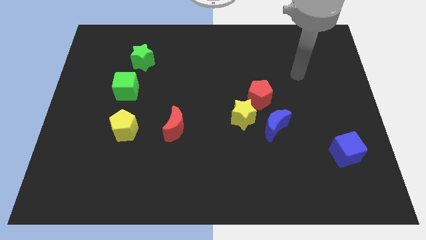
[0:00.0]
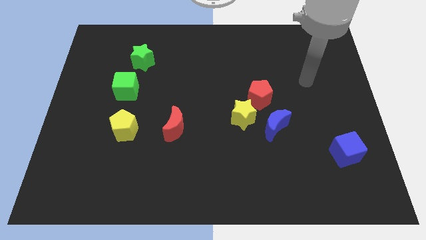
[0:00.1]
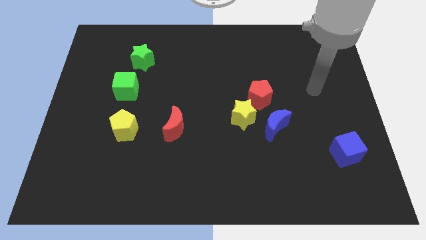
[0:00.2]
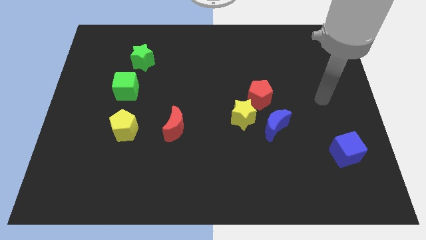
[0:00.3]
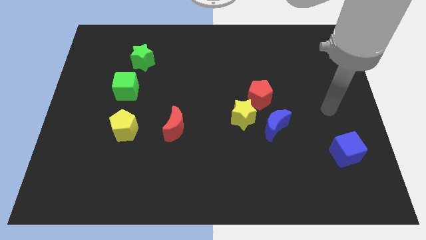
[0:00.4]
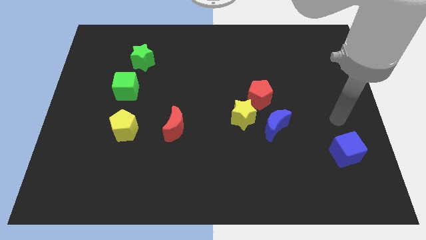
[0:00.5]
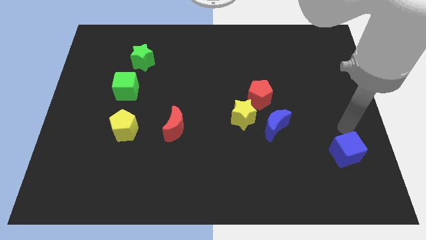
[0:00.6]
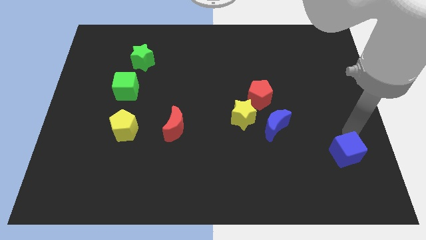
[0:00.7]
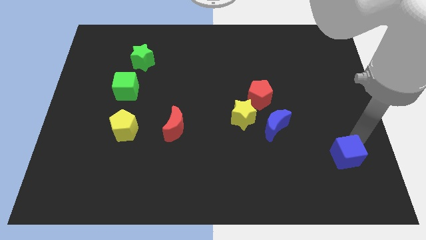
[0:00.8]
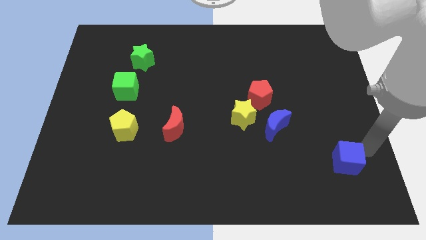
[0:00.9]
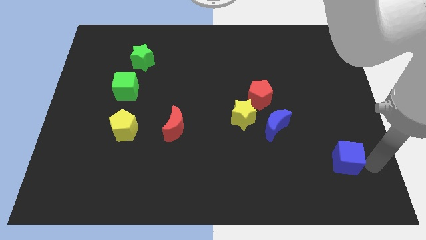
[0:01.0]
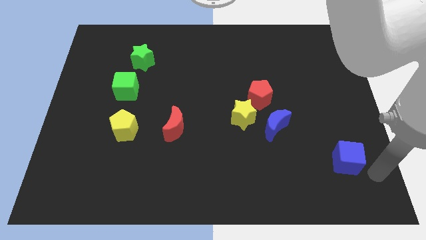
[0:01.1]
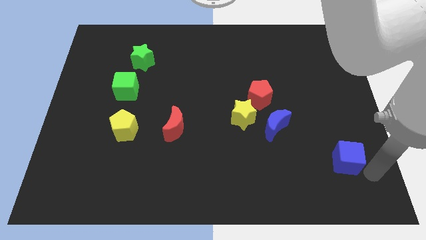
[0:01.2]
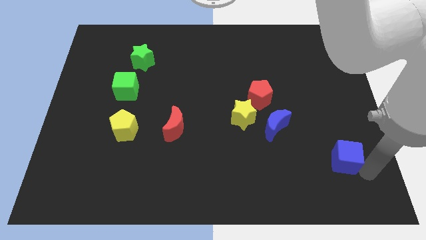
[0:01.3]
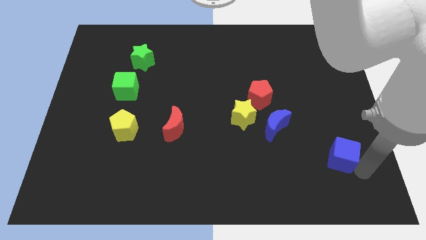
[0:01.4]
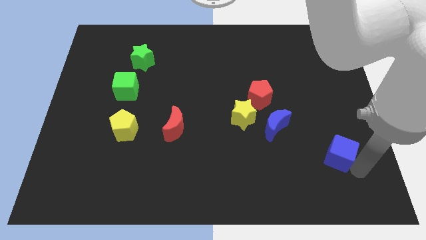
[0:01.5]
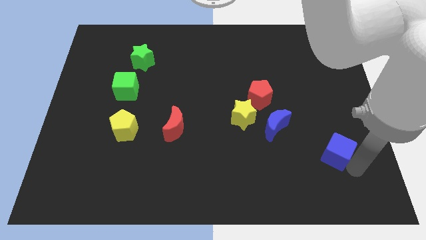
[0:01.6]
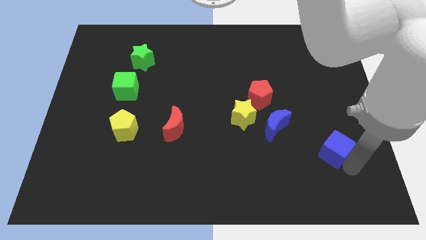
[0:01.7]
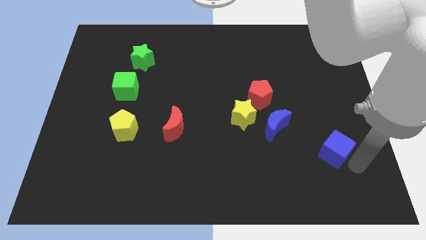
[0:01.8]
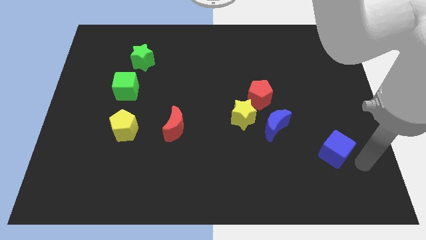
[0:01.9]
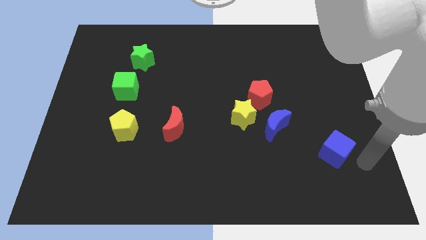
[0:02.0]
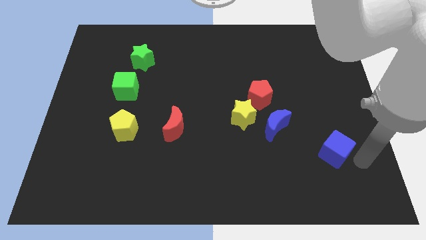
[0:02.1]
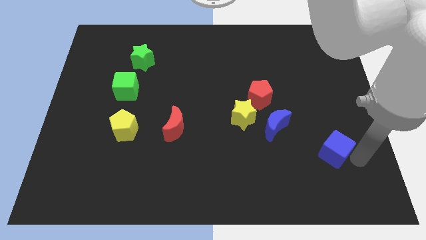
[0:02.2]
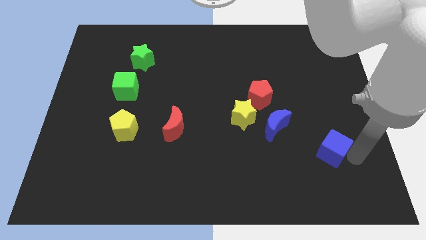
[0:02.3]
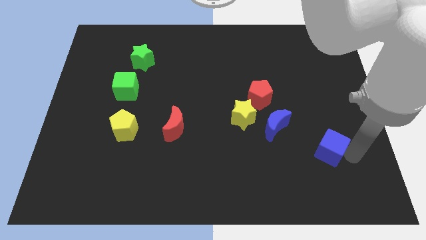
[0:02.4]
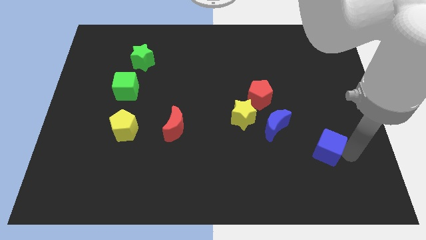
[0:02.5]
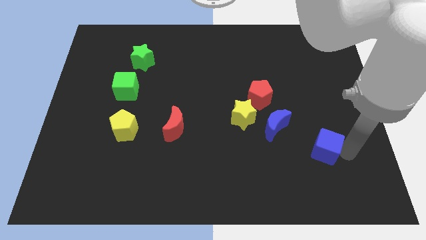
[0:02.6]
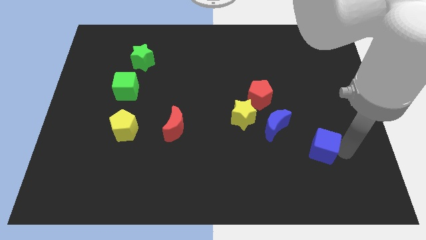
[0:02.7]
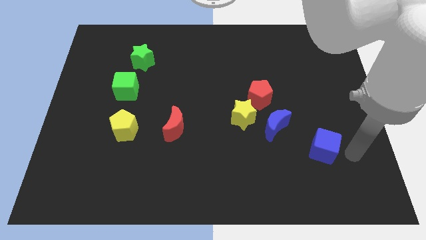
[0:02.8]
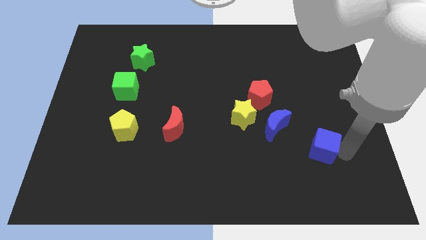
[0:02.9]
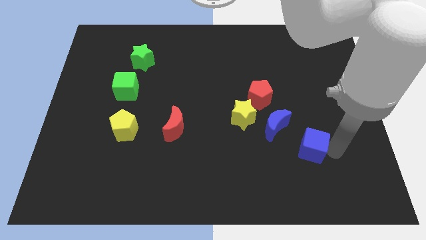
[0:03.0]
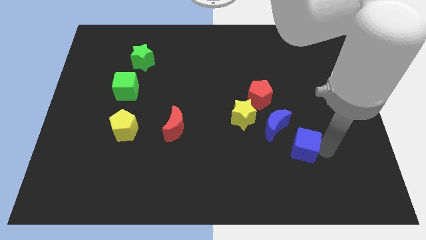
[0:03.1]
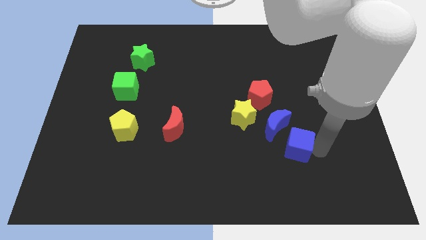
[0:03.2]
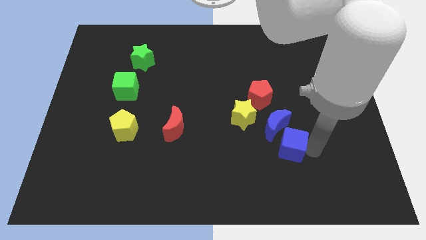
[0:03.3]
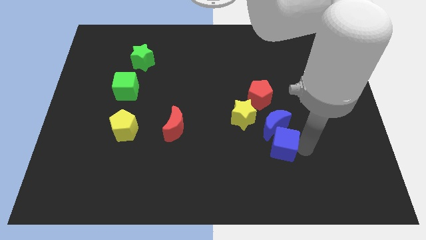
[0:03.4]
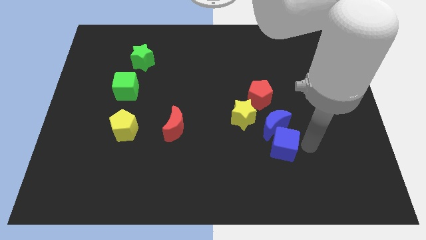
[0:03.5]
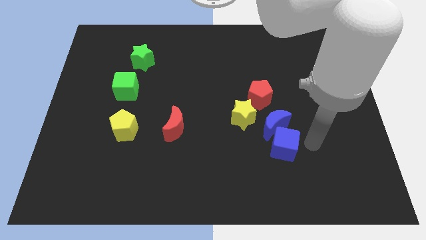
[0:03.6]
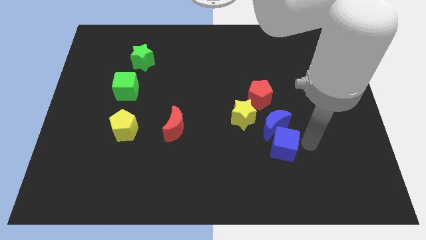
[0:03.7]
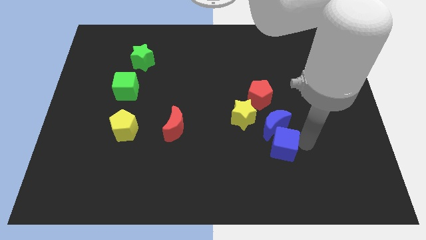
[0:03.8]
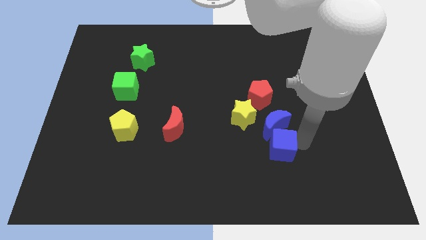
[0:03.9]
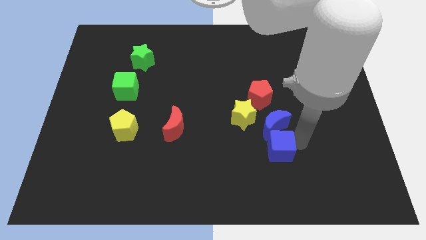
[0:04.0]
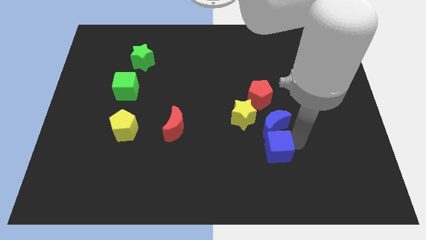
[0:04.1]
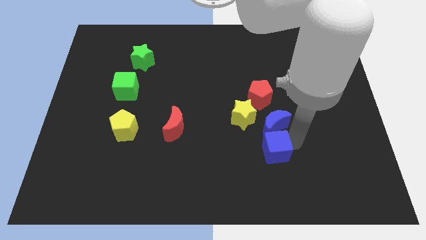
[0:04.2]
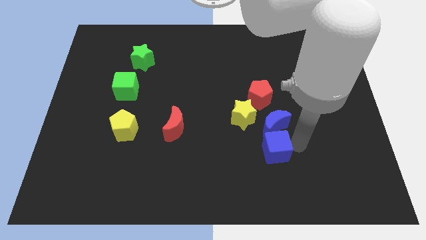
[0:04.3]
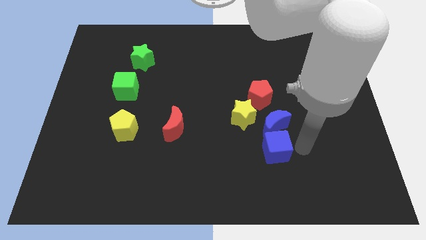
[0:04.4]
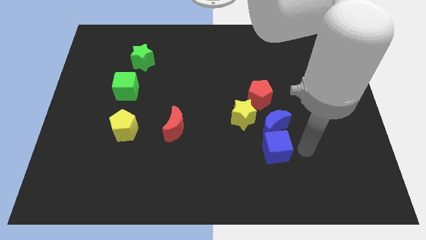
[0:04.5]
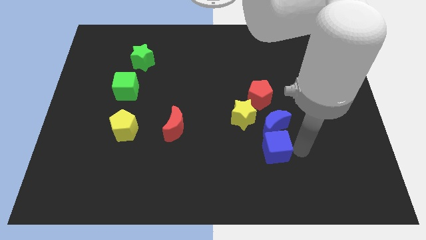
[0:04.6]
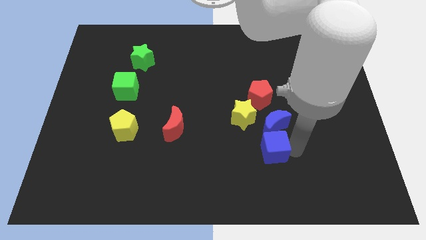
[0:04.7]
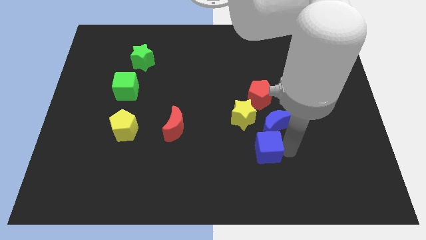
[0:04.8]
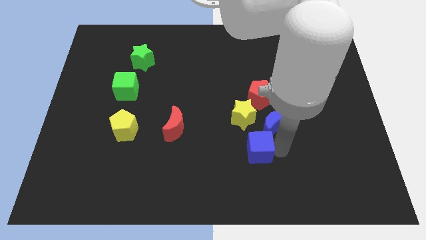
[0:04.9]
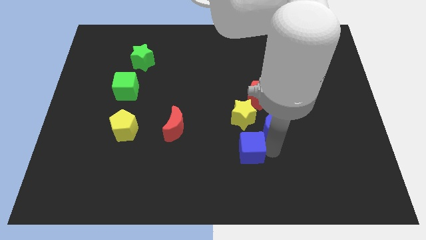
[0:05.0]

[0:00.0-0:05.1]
move the blue cube left

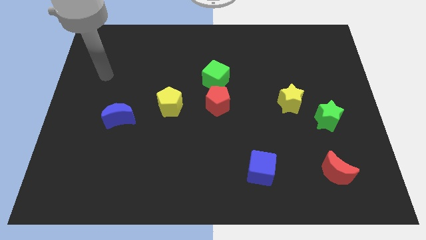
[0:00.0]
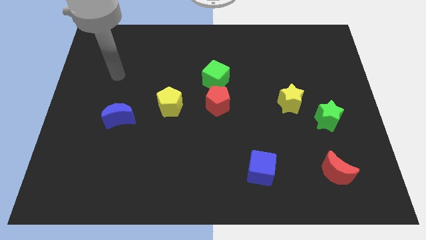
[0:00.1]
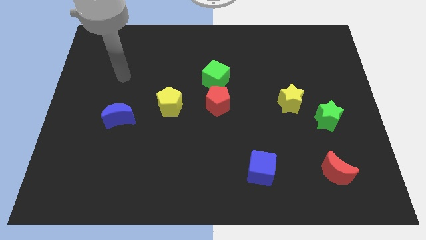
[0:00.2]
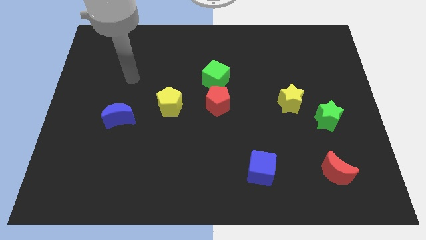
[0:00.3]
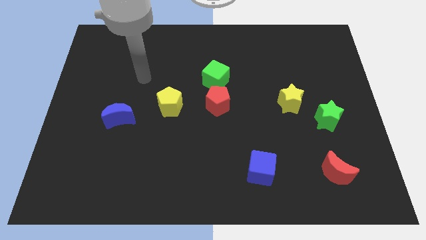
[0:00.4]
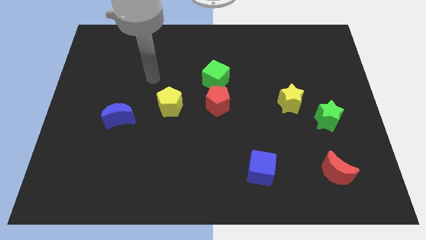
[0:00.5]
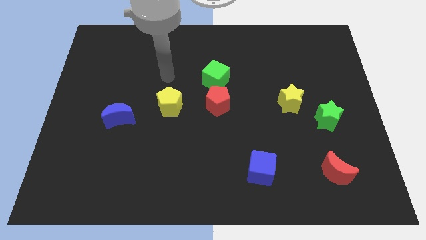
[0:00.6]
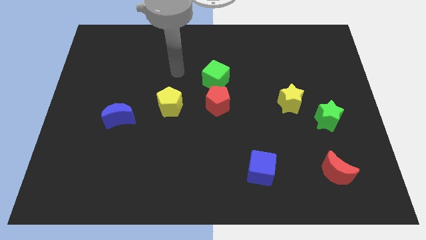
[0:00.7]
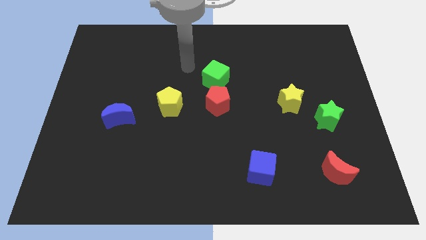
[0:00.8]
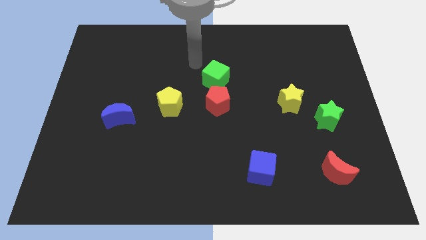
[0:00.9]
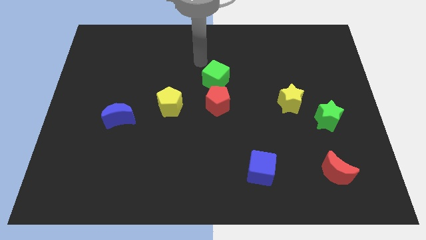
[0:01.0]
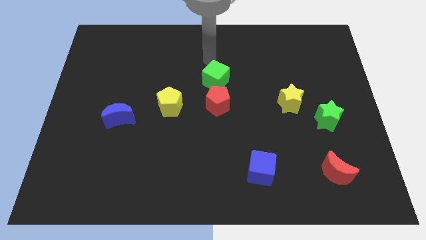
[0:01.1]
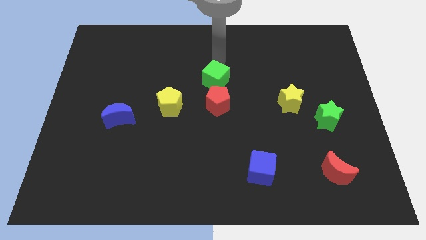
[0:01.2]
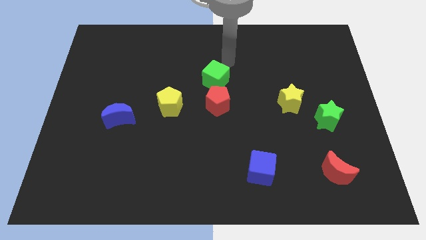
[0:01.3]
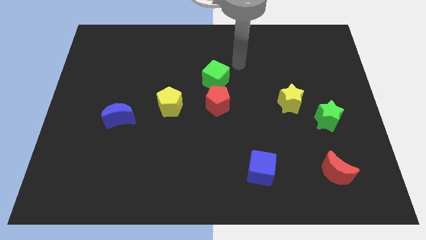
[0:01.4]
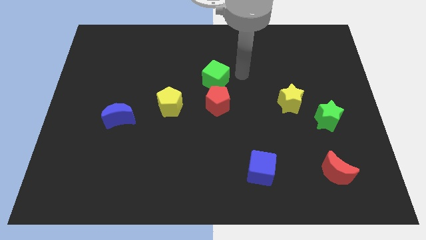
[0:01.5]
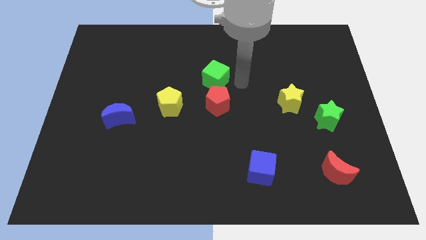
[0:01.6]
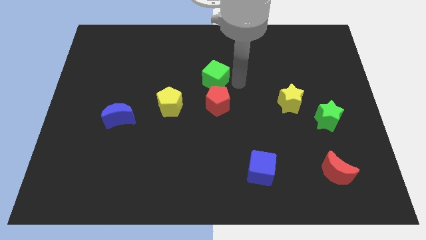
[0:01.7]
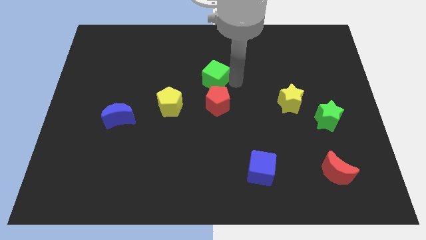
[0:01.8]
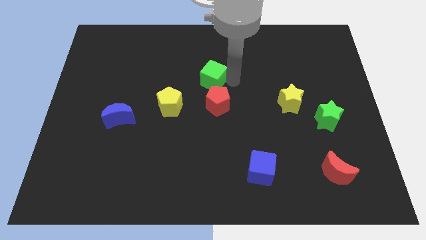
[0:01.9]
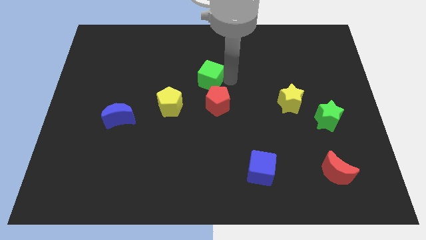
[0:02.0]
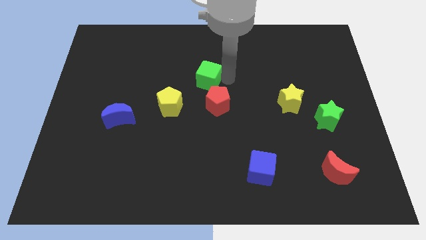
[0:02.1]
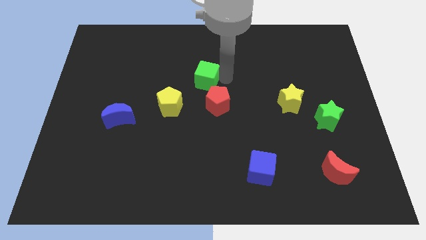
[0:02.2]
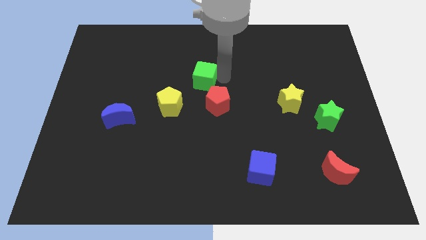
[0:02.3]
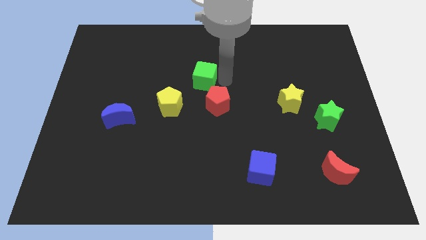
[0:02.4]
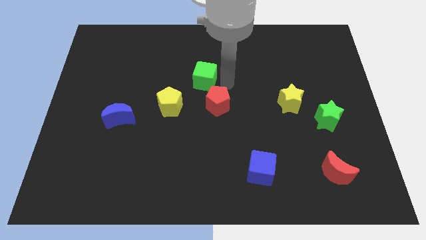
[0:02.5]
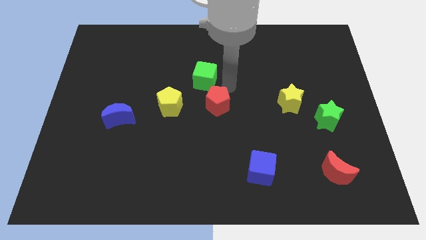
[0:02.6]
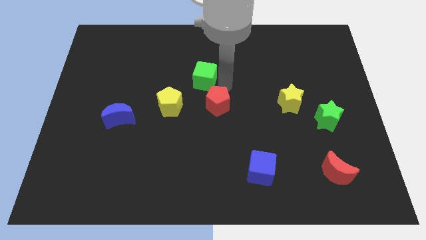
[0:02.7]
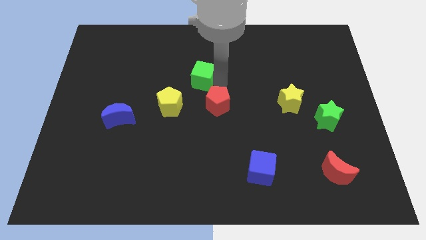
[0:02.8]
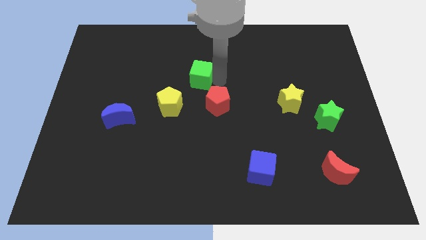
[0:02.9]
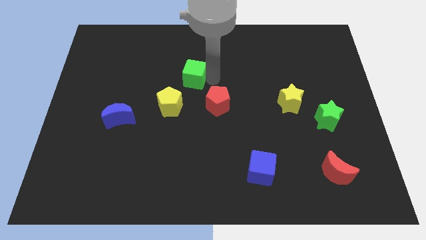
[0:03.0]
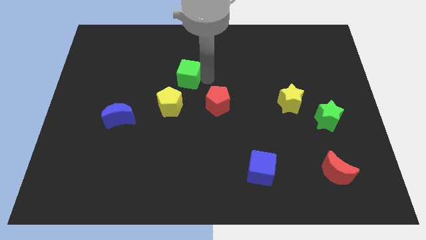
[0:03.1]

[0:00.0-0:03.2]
move the green cube to the left somewhat
